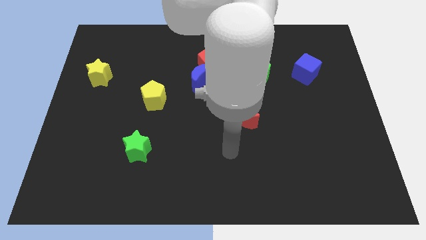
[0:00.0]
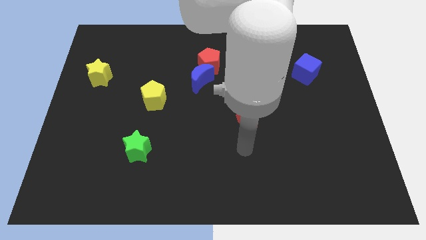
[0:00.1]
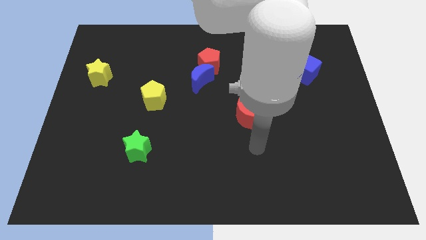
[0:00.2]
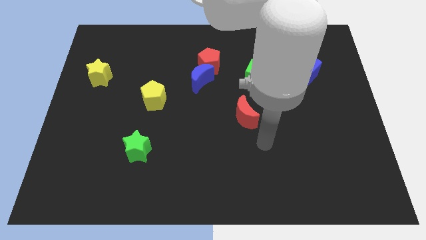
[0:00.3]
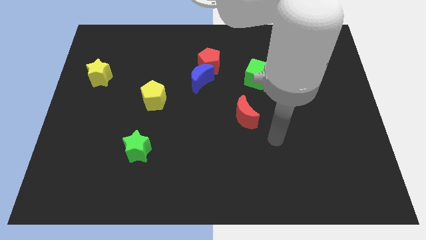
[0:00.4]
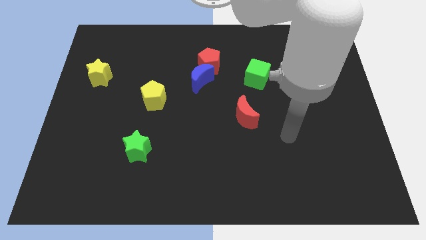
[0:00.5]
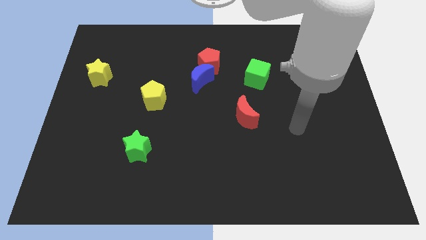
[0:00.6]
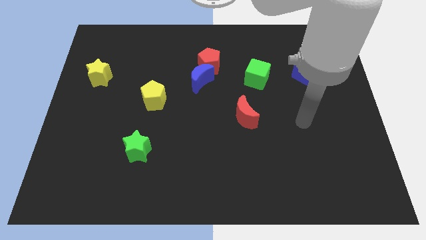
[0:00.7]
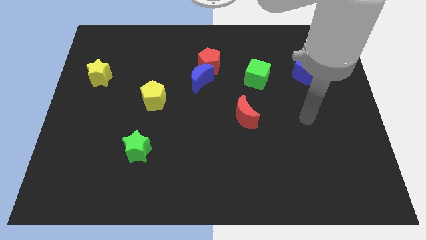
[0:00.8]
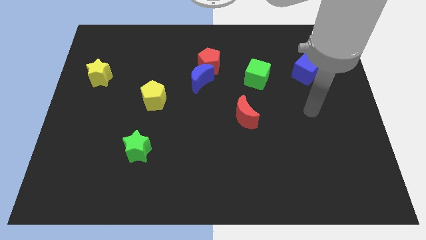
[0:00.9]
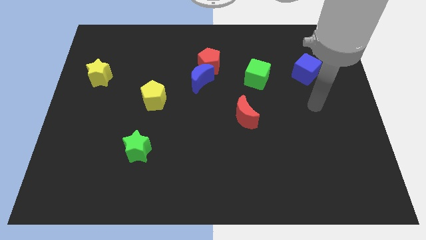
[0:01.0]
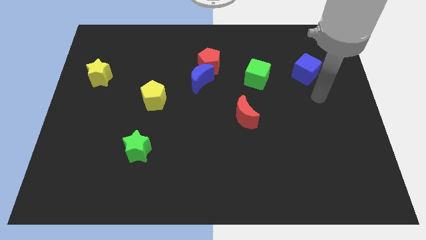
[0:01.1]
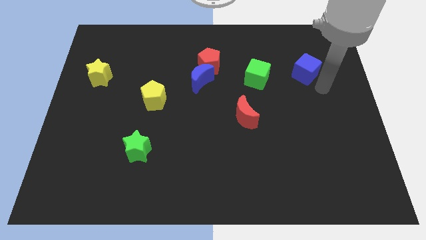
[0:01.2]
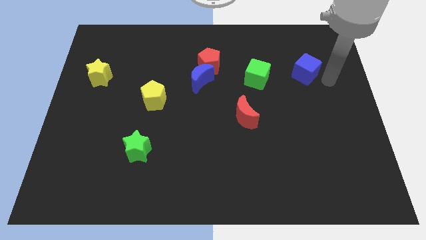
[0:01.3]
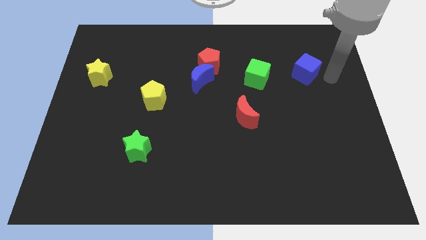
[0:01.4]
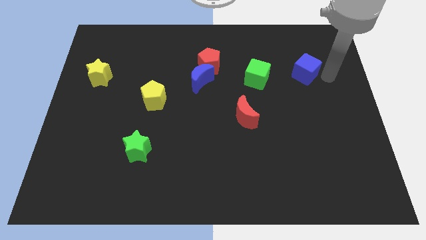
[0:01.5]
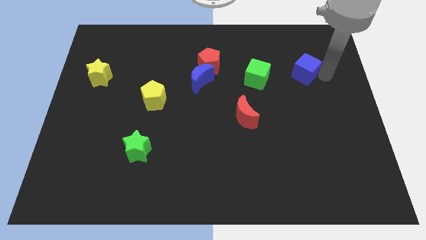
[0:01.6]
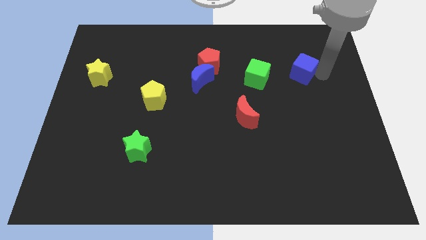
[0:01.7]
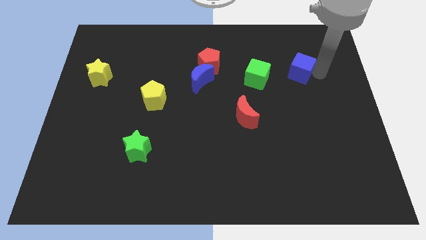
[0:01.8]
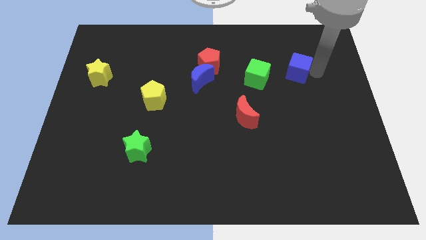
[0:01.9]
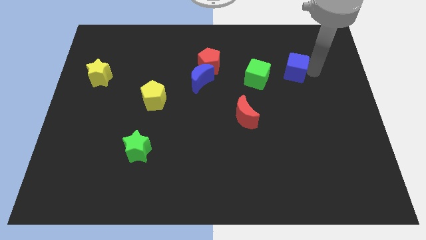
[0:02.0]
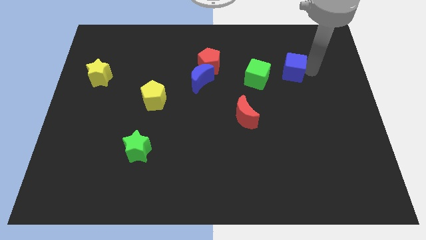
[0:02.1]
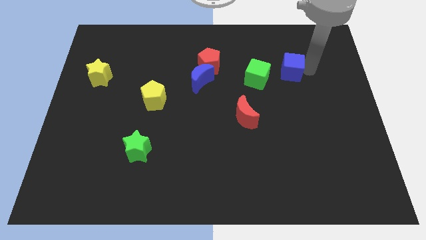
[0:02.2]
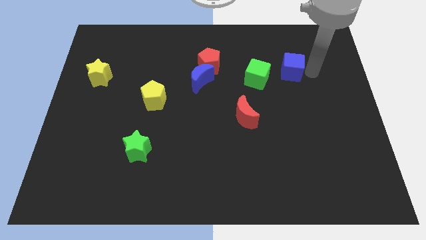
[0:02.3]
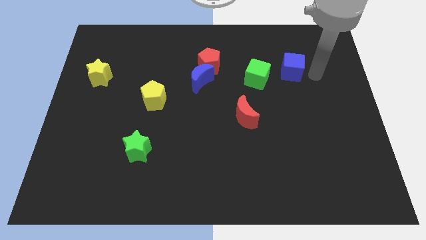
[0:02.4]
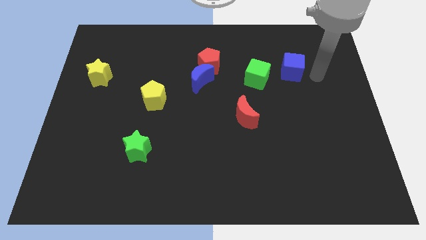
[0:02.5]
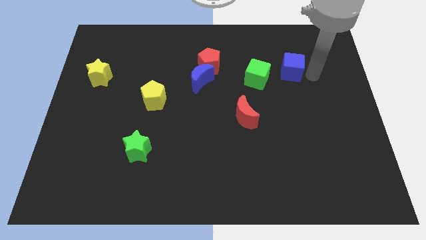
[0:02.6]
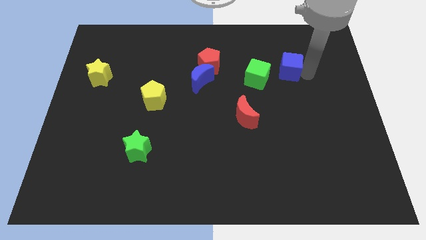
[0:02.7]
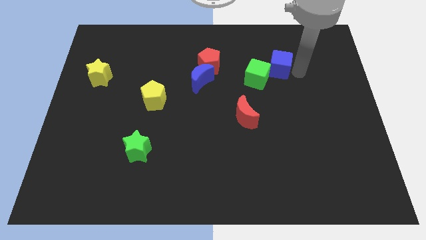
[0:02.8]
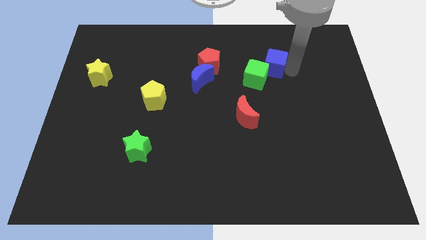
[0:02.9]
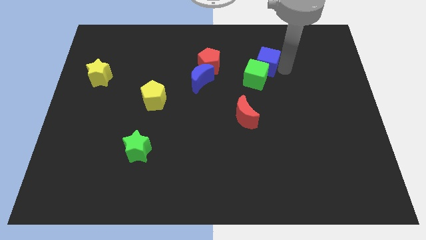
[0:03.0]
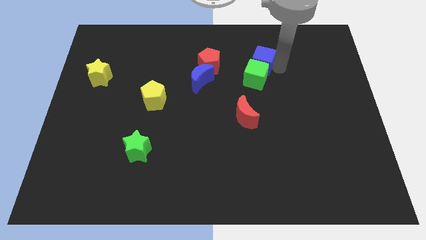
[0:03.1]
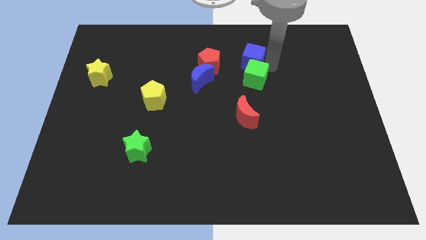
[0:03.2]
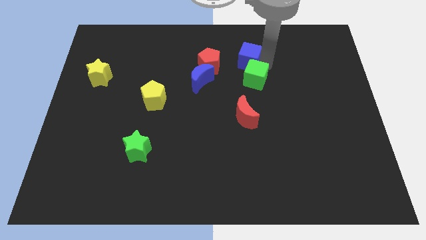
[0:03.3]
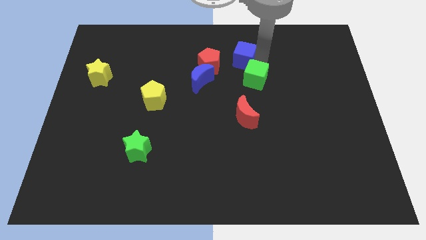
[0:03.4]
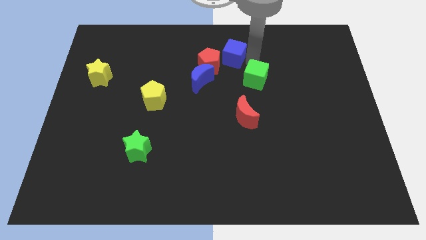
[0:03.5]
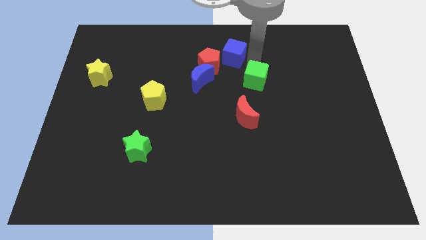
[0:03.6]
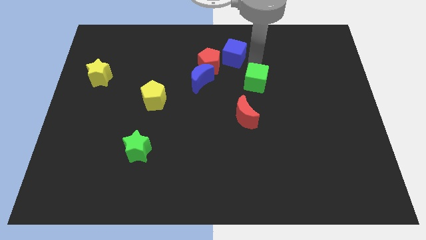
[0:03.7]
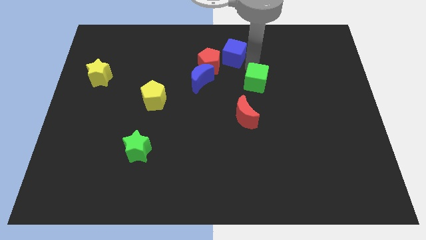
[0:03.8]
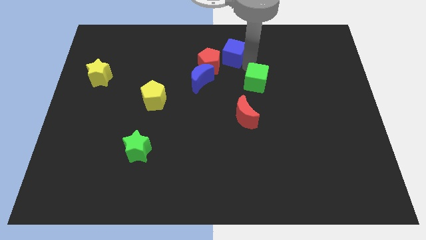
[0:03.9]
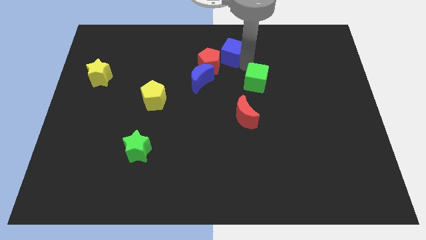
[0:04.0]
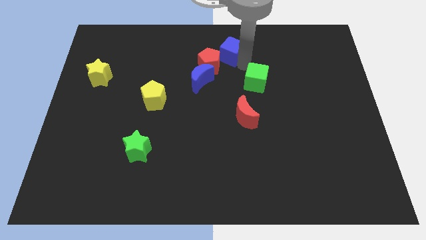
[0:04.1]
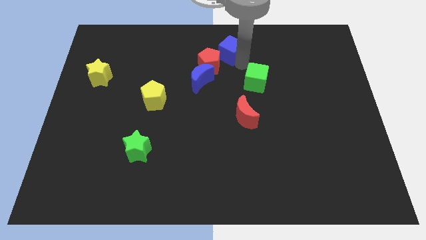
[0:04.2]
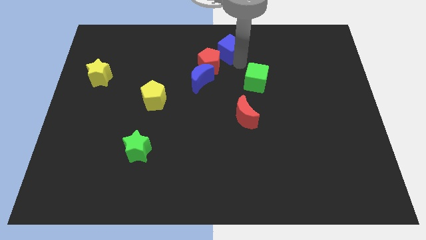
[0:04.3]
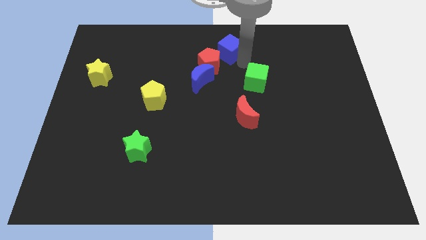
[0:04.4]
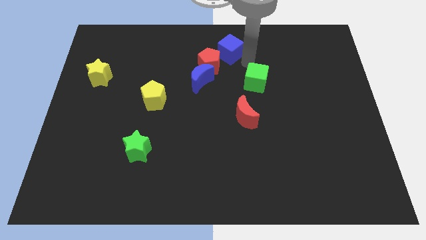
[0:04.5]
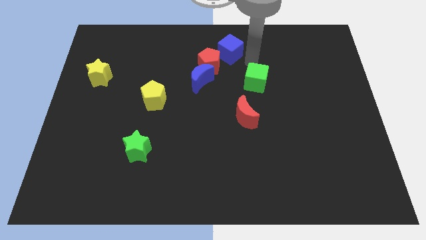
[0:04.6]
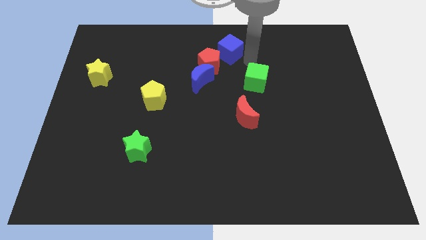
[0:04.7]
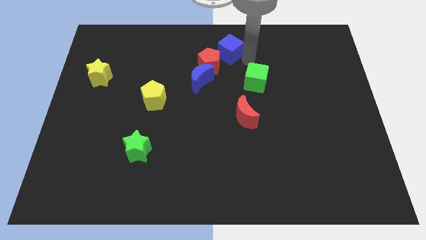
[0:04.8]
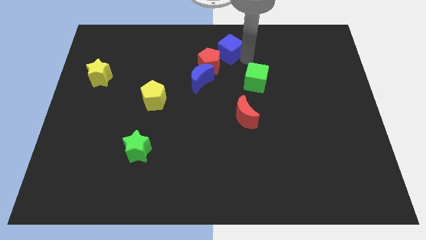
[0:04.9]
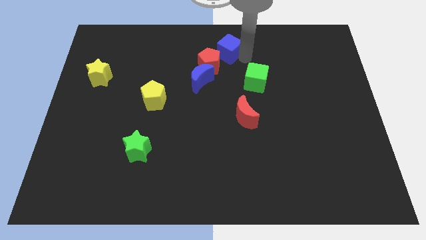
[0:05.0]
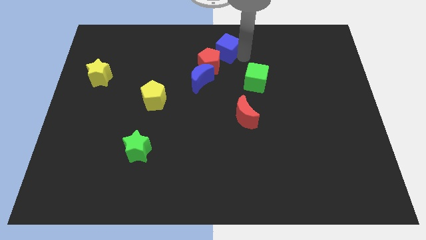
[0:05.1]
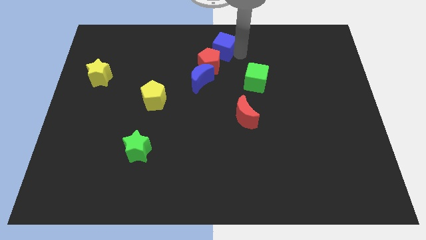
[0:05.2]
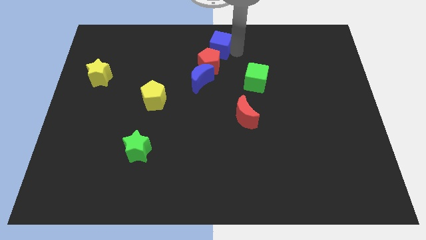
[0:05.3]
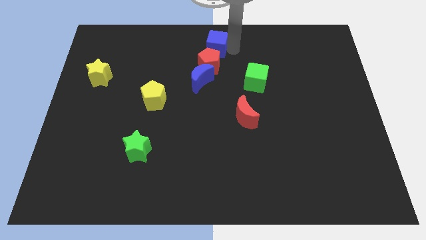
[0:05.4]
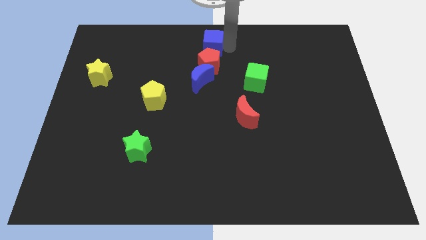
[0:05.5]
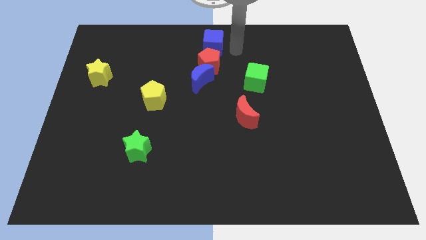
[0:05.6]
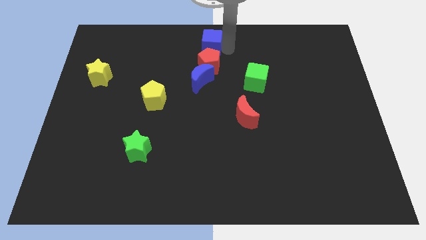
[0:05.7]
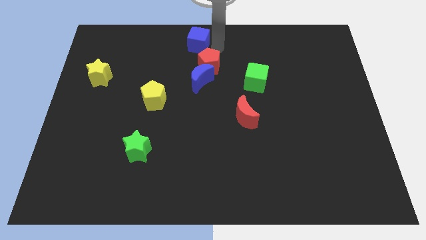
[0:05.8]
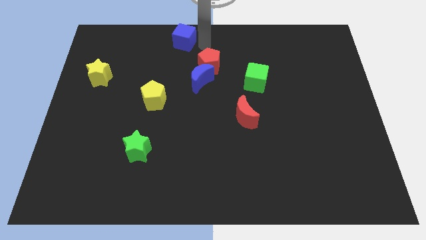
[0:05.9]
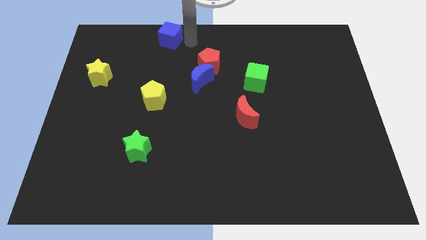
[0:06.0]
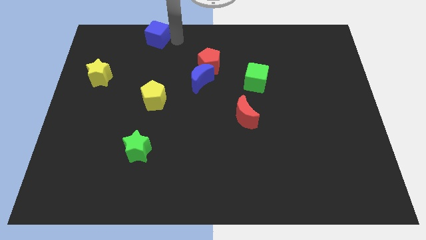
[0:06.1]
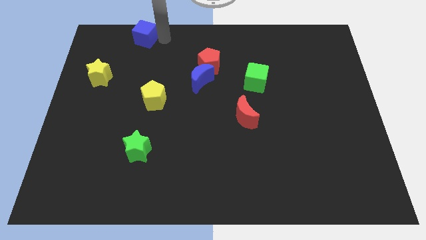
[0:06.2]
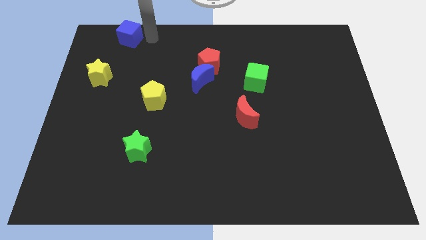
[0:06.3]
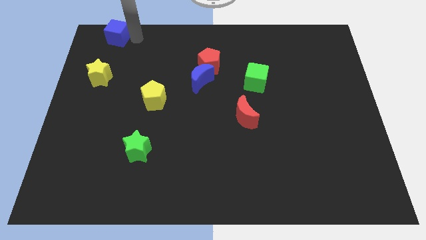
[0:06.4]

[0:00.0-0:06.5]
move the blue cube to the top left

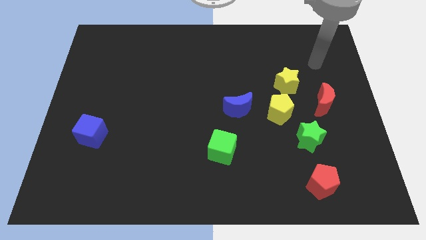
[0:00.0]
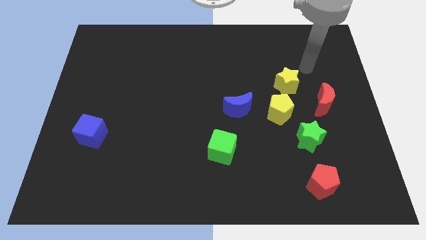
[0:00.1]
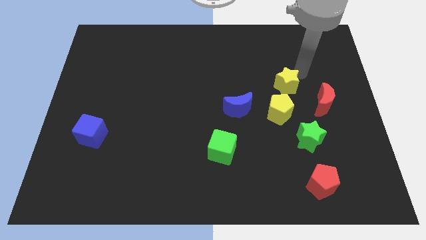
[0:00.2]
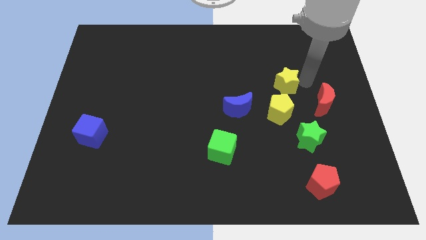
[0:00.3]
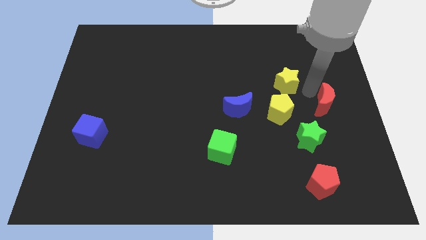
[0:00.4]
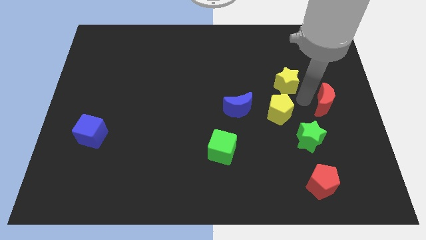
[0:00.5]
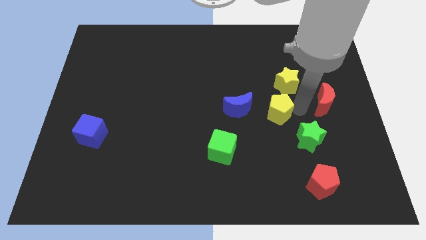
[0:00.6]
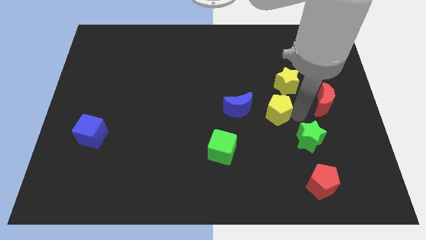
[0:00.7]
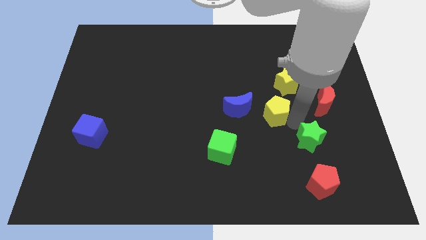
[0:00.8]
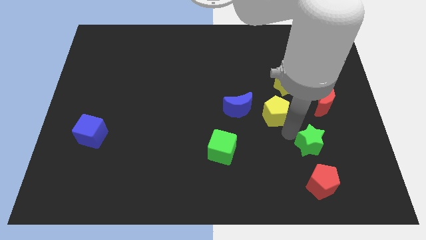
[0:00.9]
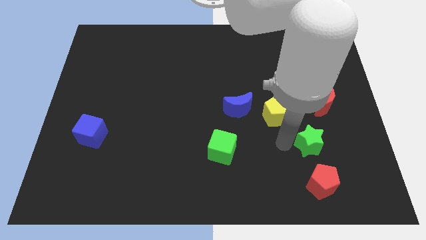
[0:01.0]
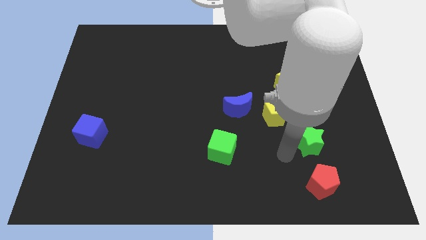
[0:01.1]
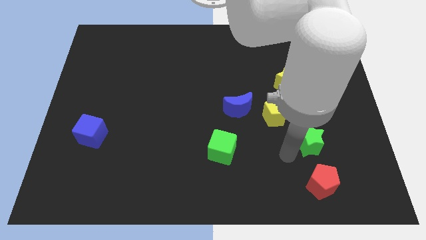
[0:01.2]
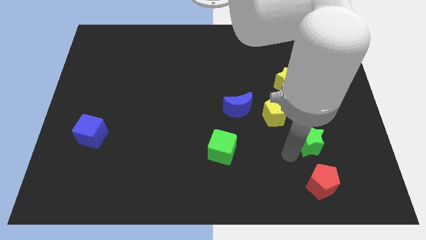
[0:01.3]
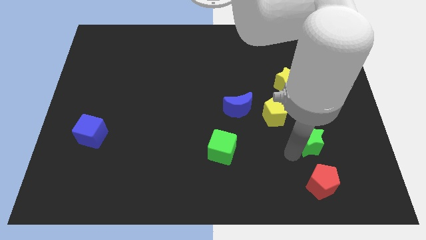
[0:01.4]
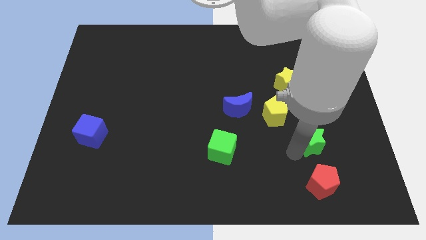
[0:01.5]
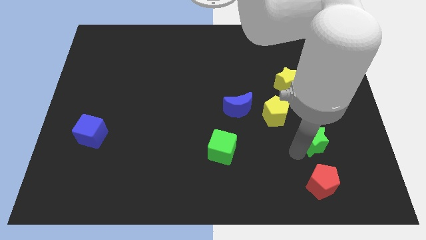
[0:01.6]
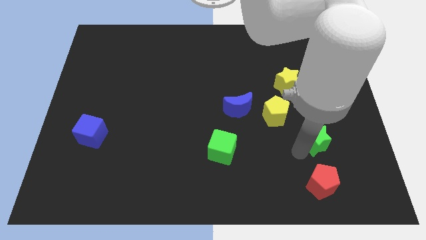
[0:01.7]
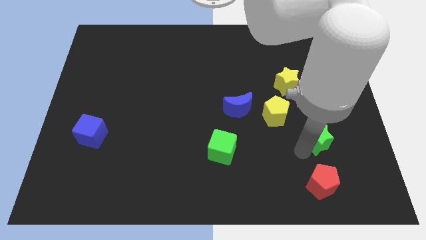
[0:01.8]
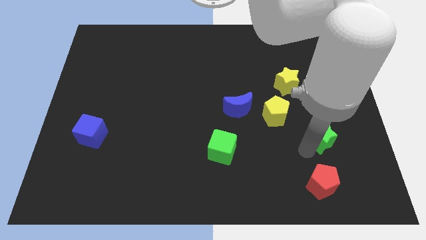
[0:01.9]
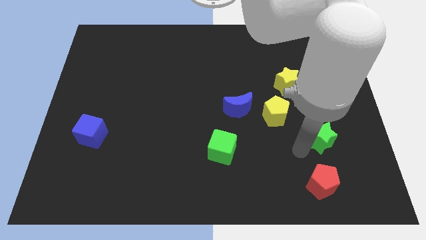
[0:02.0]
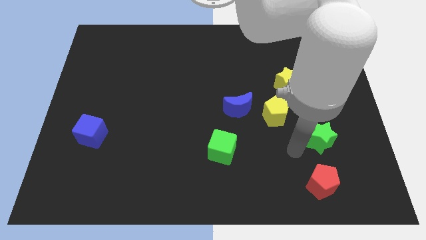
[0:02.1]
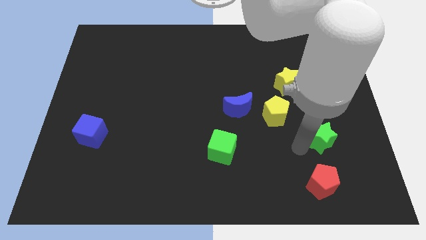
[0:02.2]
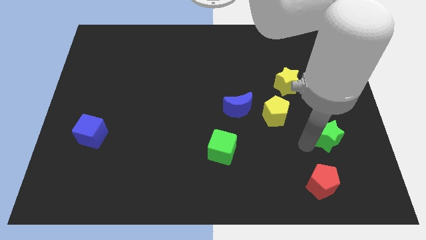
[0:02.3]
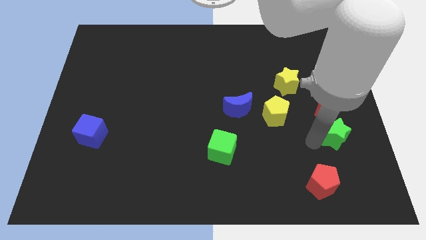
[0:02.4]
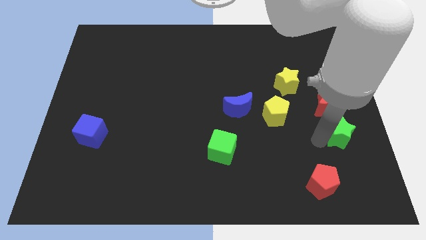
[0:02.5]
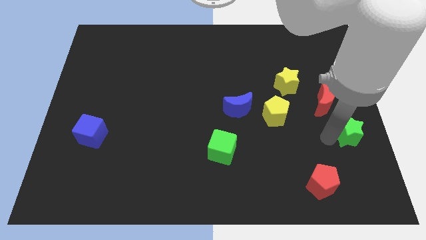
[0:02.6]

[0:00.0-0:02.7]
put the green star to the center right
